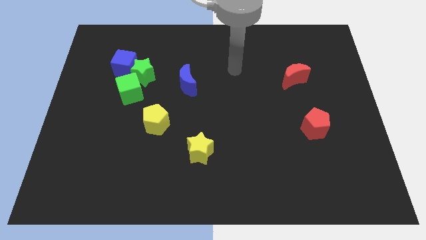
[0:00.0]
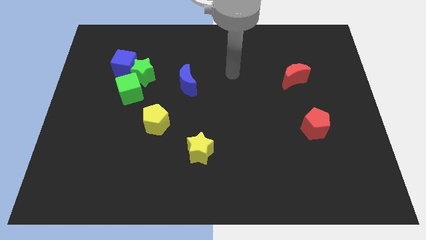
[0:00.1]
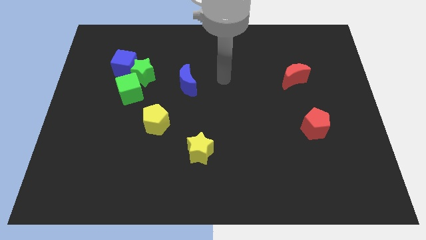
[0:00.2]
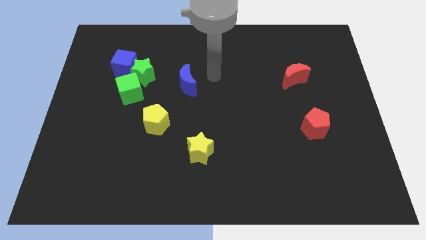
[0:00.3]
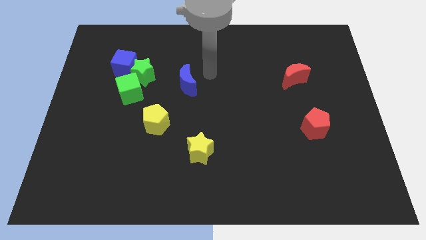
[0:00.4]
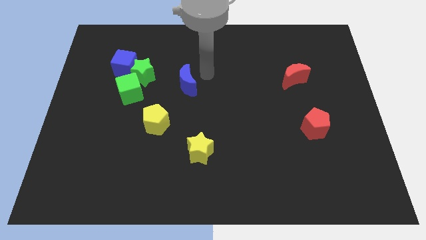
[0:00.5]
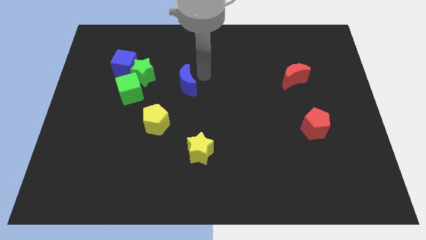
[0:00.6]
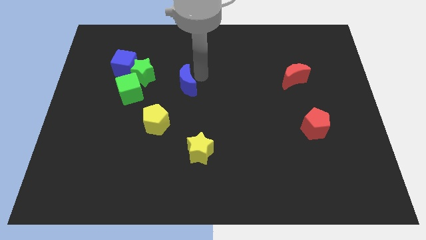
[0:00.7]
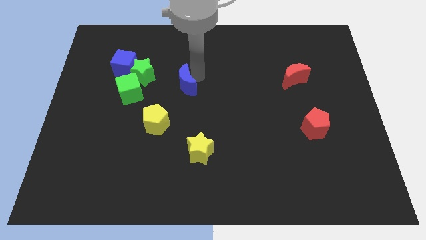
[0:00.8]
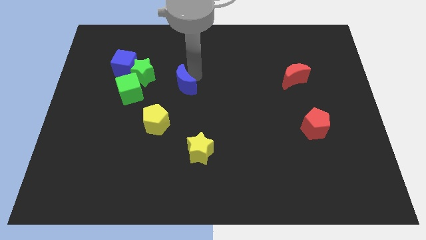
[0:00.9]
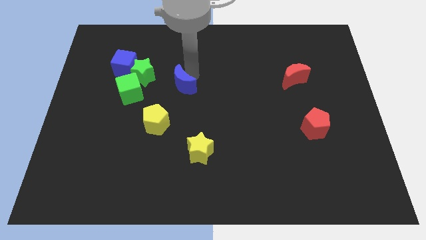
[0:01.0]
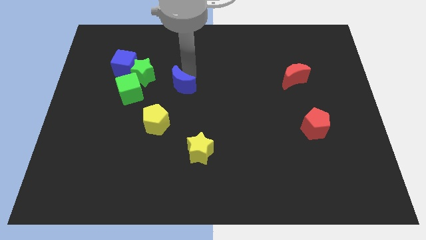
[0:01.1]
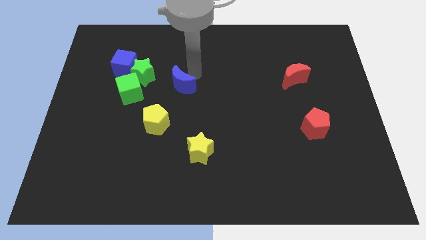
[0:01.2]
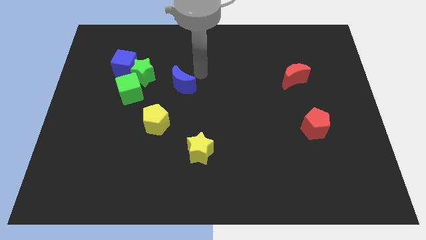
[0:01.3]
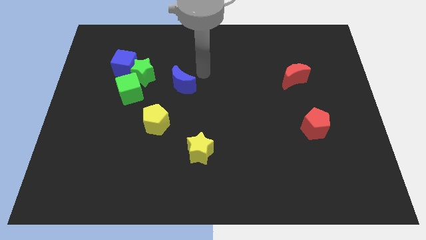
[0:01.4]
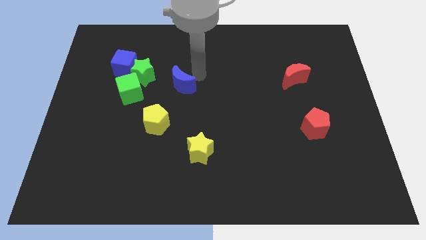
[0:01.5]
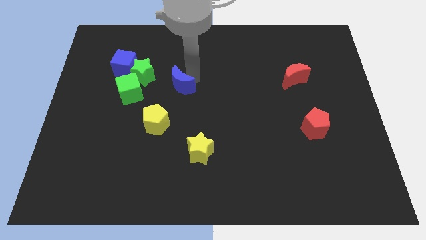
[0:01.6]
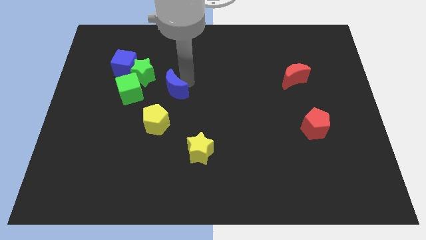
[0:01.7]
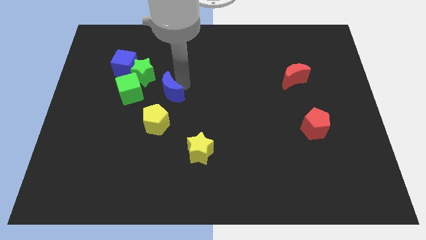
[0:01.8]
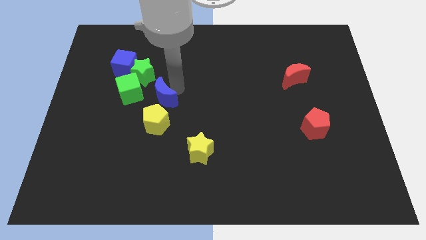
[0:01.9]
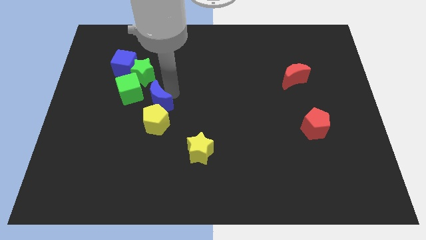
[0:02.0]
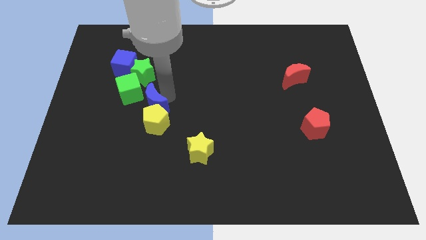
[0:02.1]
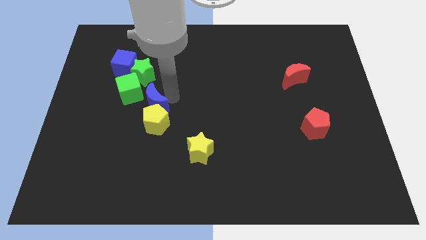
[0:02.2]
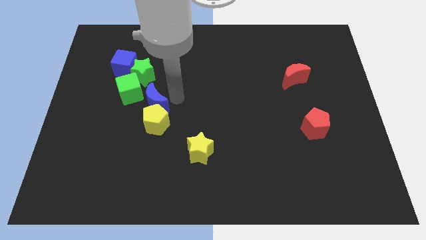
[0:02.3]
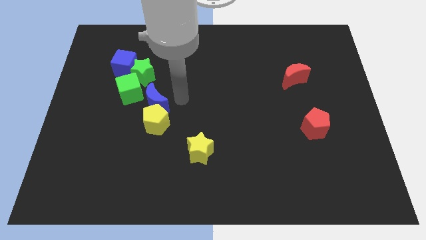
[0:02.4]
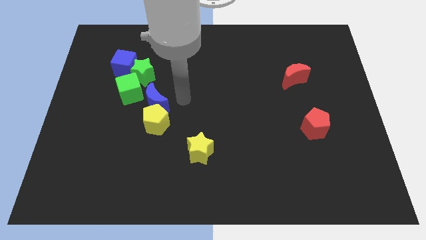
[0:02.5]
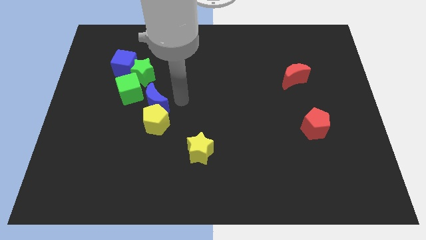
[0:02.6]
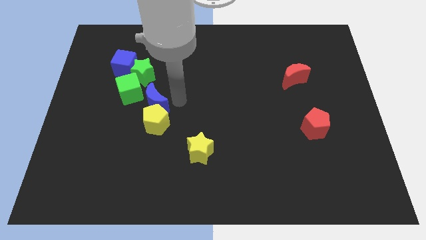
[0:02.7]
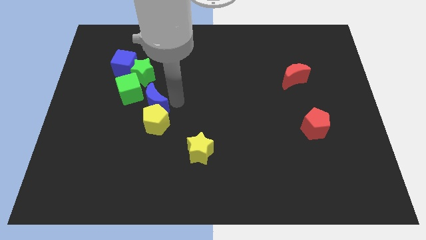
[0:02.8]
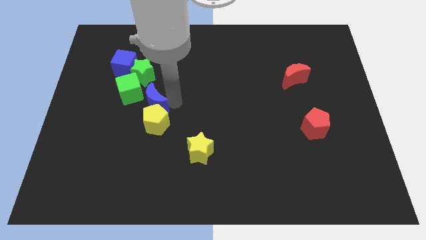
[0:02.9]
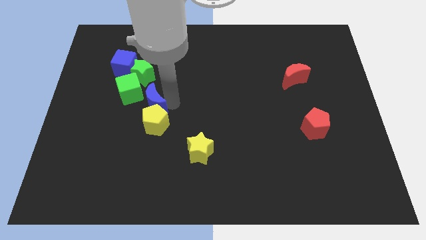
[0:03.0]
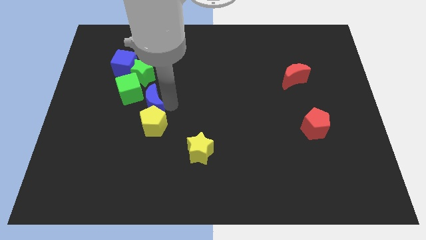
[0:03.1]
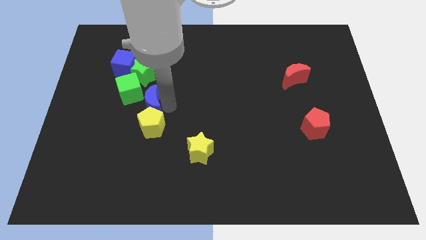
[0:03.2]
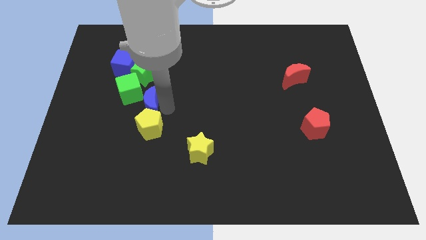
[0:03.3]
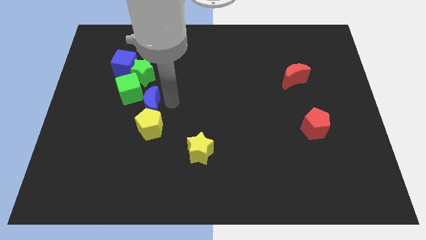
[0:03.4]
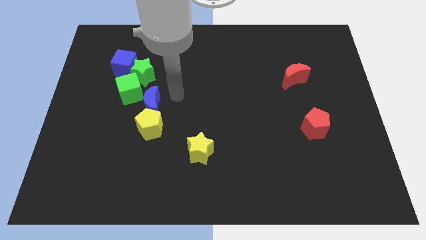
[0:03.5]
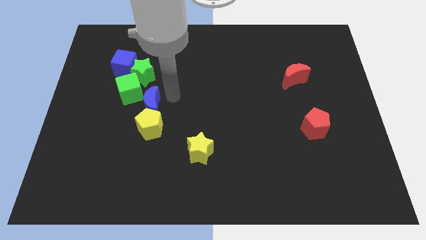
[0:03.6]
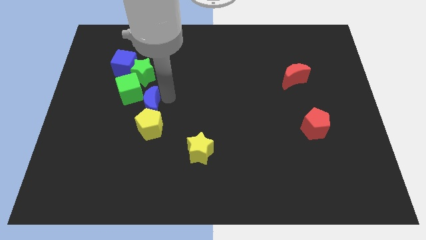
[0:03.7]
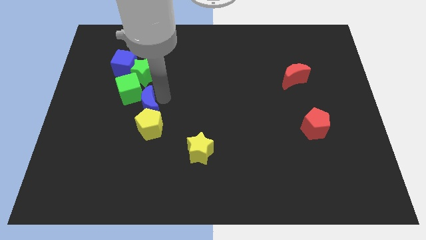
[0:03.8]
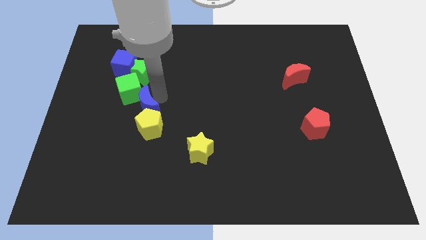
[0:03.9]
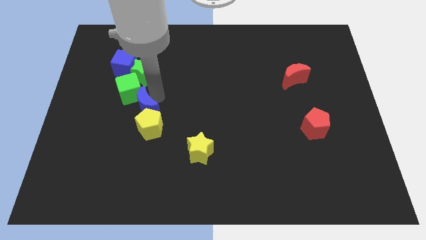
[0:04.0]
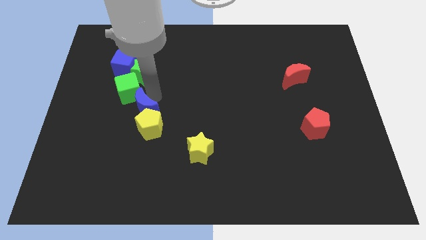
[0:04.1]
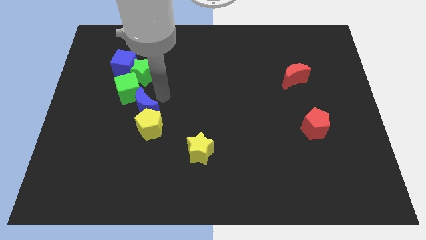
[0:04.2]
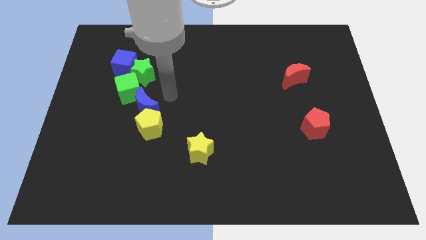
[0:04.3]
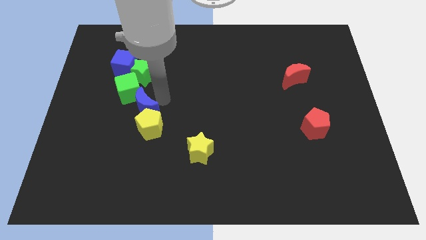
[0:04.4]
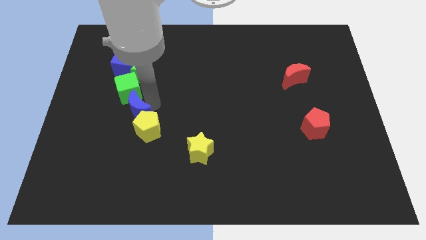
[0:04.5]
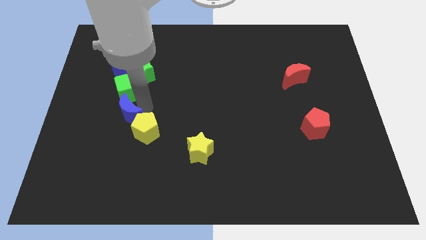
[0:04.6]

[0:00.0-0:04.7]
push the blue moon to the left of the yellow pentagon

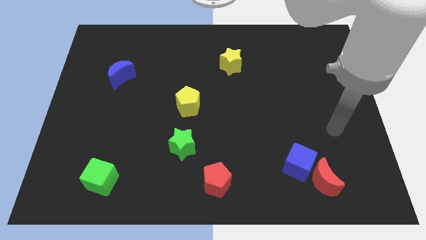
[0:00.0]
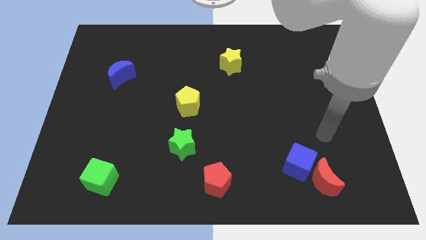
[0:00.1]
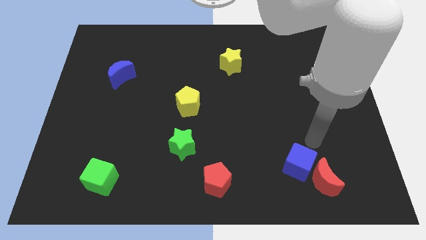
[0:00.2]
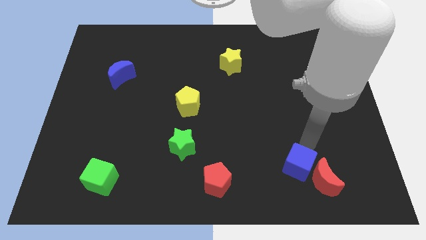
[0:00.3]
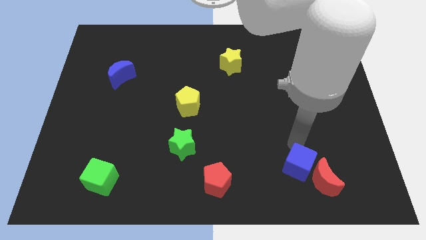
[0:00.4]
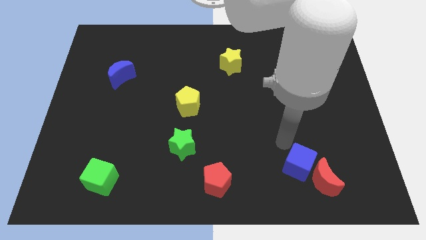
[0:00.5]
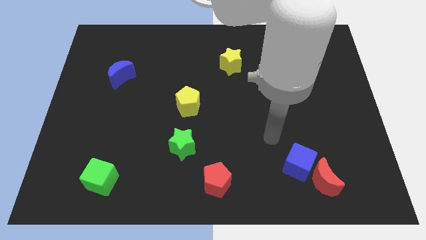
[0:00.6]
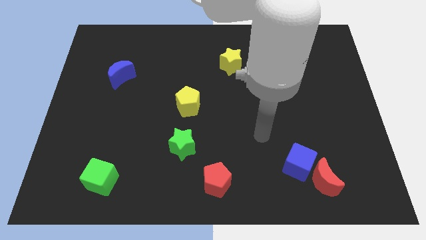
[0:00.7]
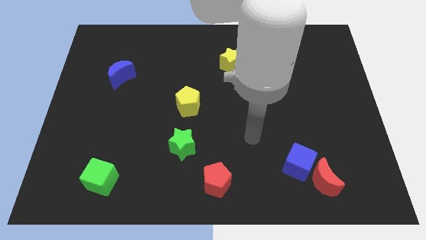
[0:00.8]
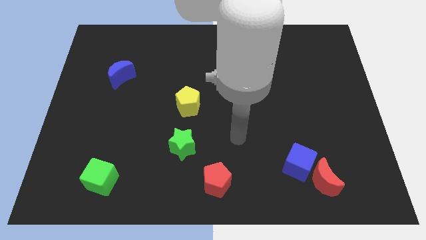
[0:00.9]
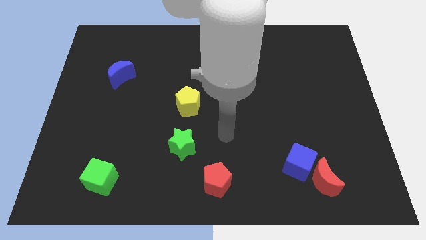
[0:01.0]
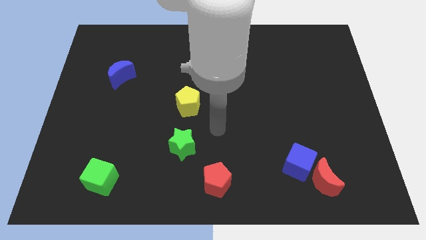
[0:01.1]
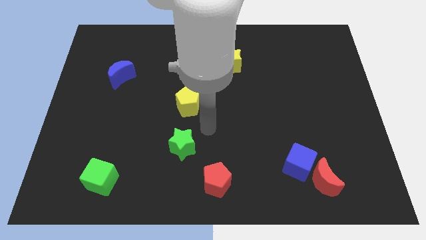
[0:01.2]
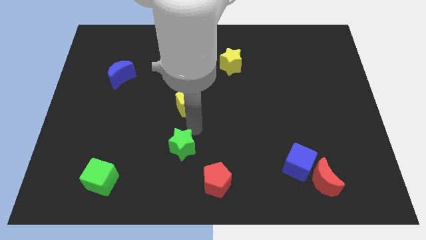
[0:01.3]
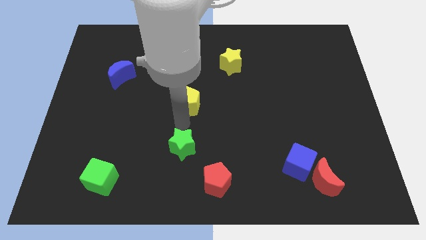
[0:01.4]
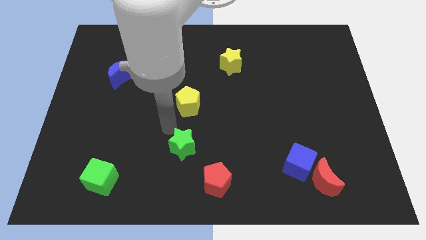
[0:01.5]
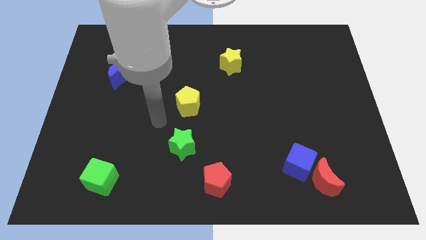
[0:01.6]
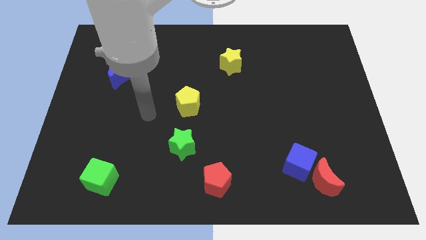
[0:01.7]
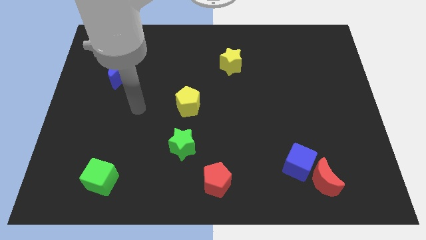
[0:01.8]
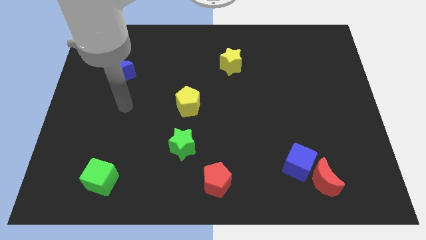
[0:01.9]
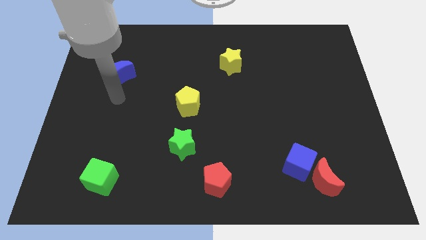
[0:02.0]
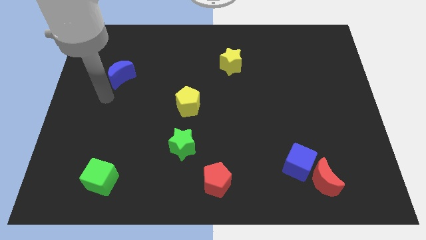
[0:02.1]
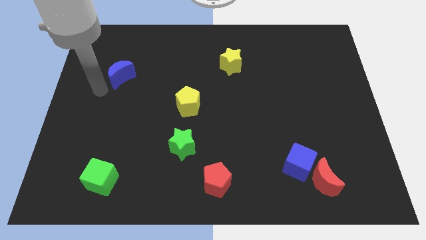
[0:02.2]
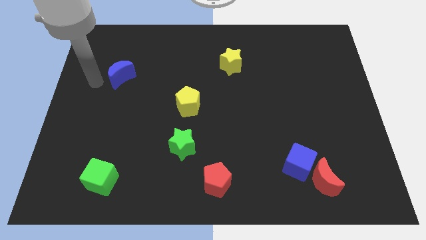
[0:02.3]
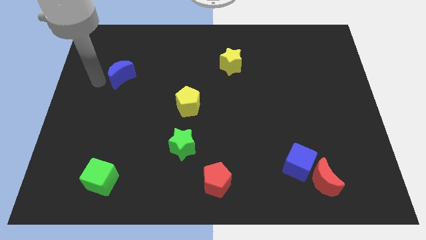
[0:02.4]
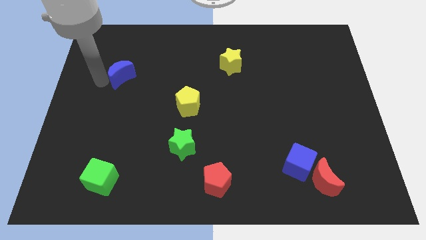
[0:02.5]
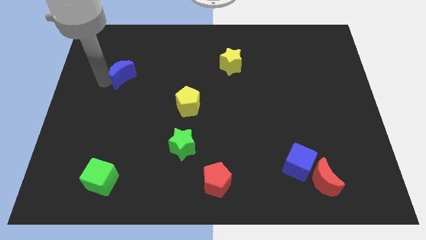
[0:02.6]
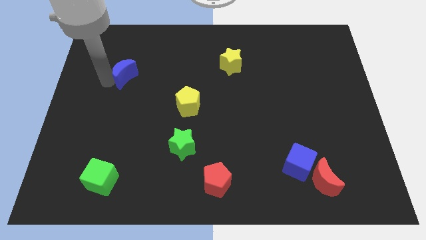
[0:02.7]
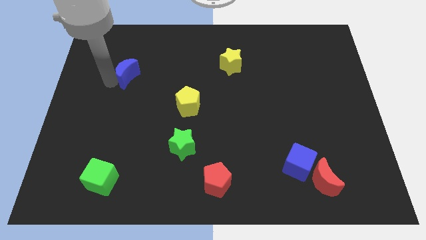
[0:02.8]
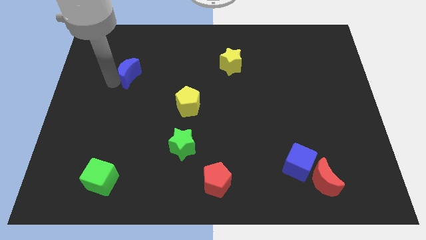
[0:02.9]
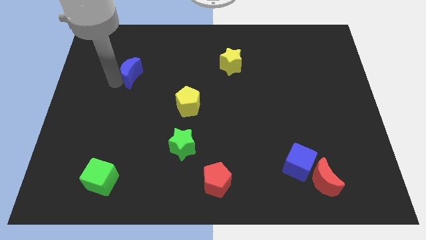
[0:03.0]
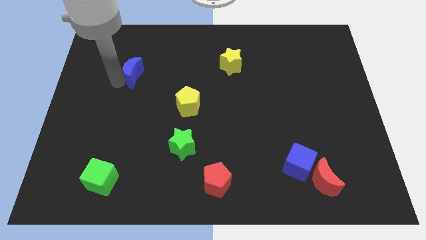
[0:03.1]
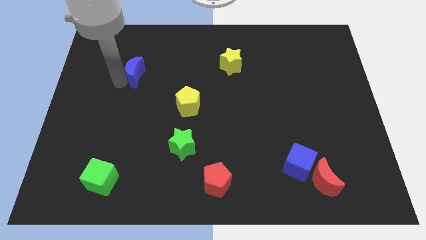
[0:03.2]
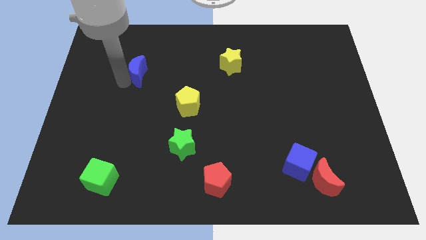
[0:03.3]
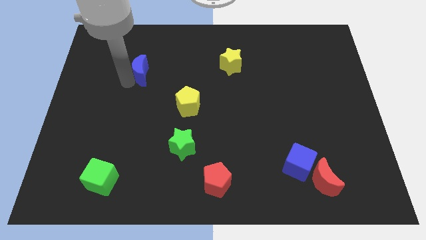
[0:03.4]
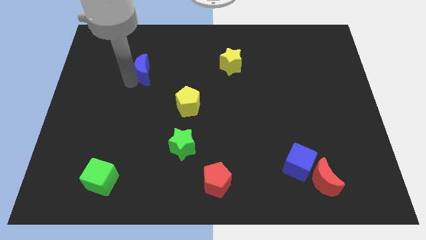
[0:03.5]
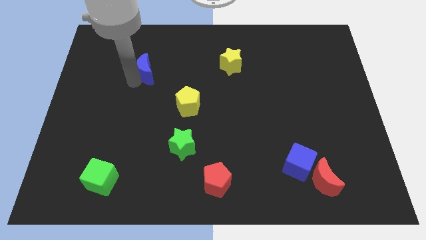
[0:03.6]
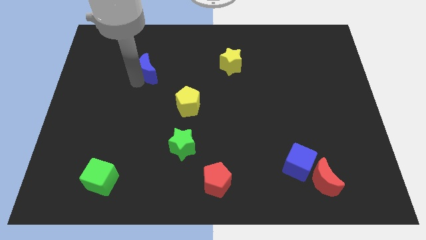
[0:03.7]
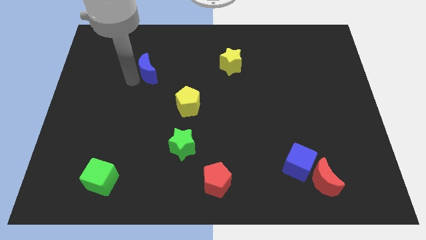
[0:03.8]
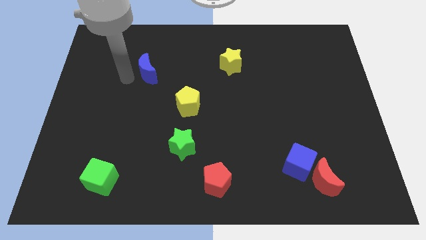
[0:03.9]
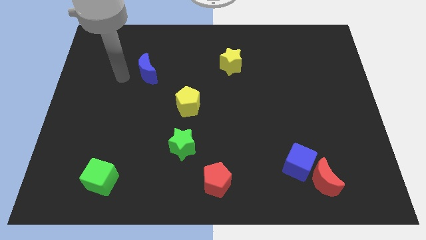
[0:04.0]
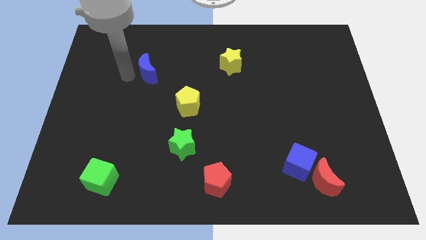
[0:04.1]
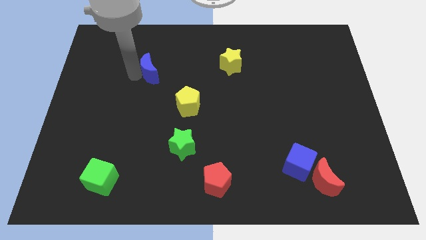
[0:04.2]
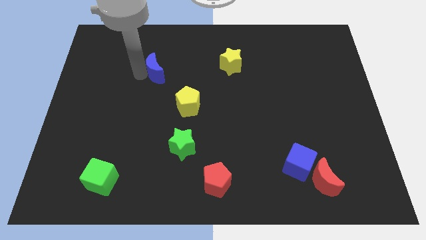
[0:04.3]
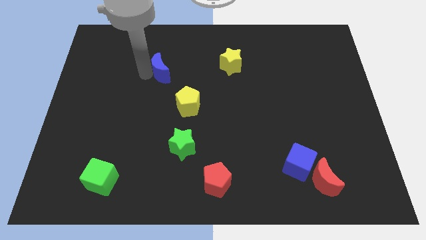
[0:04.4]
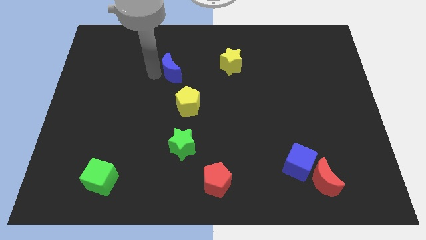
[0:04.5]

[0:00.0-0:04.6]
push the blue moon to the left of the yellow star
